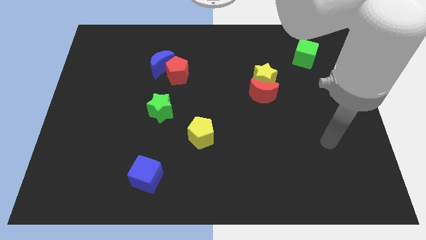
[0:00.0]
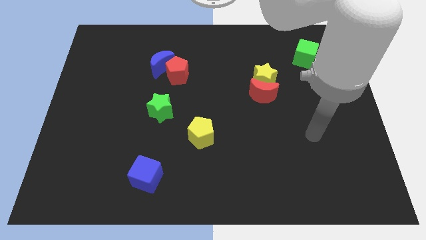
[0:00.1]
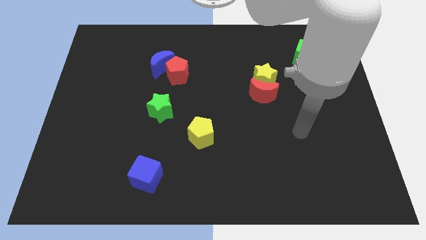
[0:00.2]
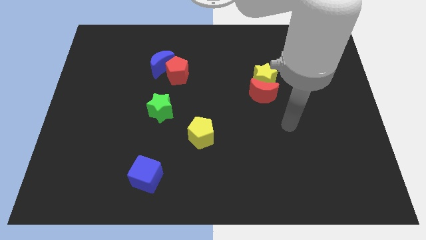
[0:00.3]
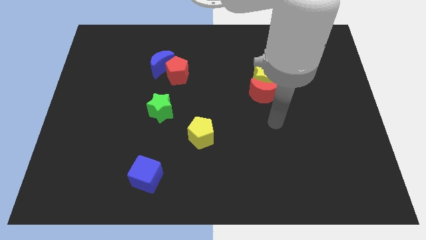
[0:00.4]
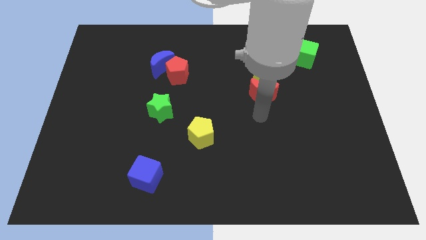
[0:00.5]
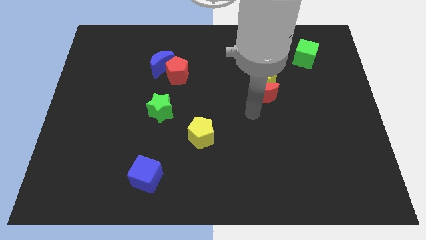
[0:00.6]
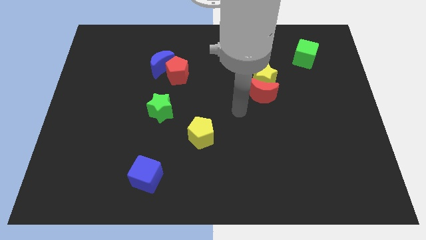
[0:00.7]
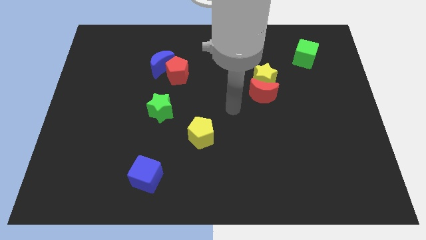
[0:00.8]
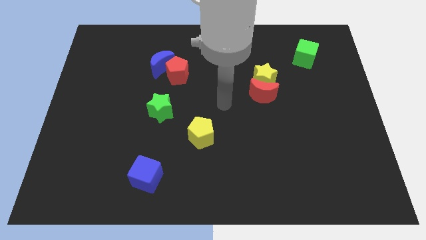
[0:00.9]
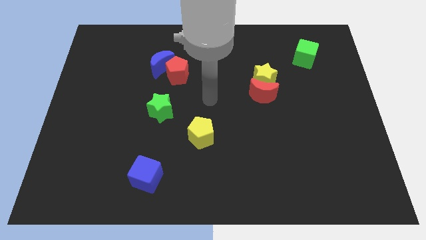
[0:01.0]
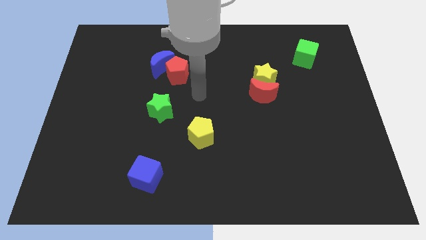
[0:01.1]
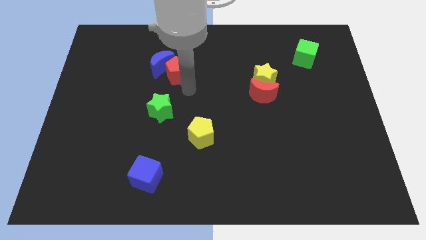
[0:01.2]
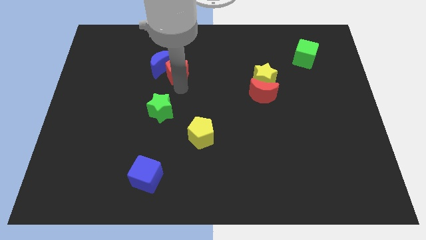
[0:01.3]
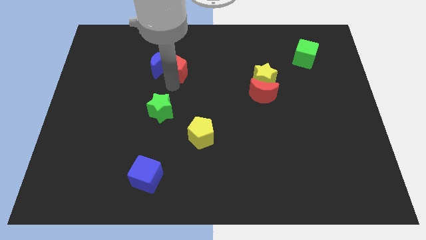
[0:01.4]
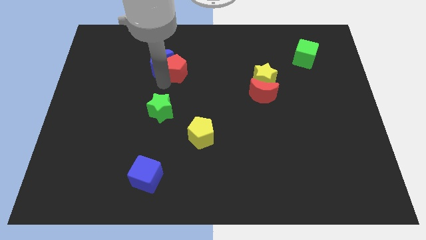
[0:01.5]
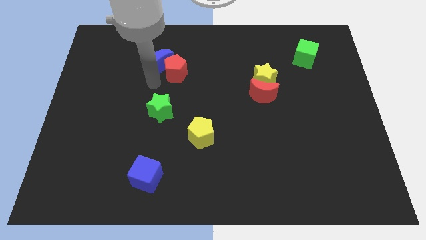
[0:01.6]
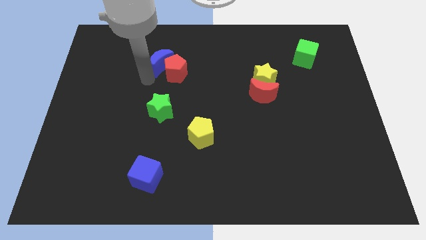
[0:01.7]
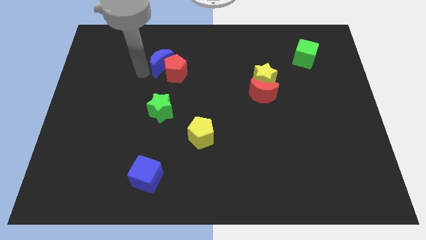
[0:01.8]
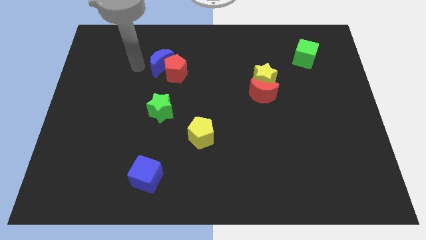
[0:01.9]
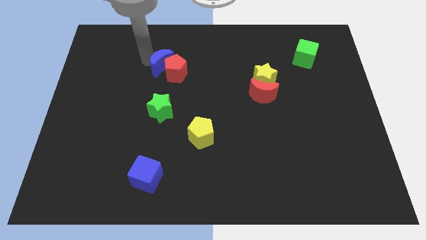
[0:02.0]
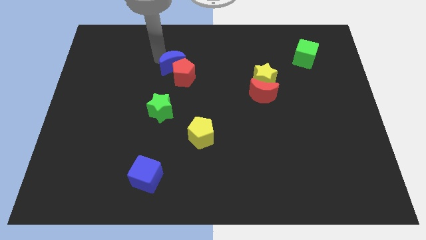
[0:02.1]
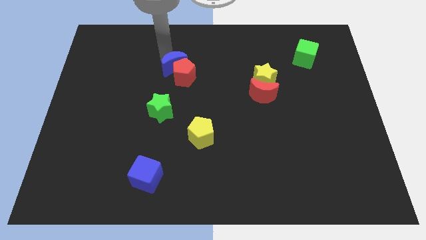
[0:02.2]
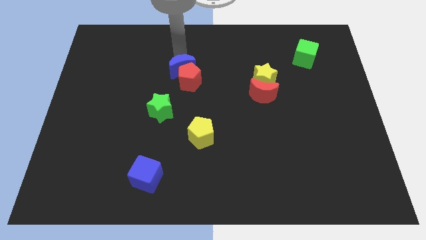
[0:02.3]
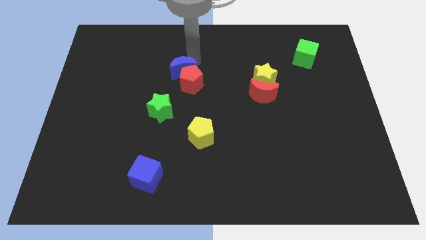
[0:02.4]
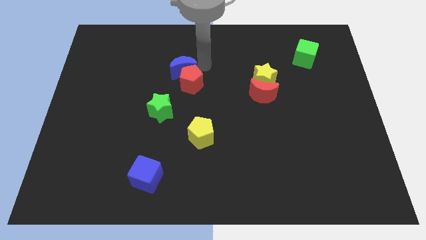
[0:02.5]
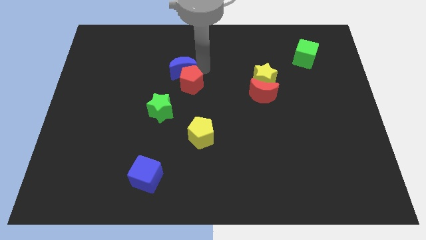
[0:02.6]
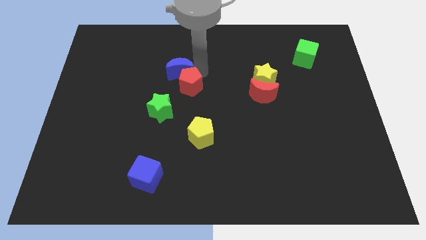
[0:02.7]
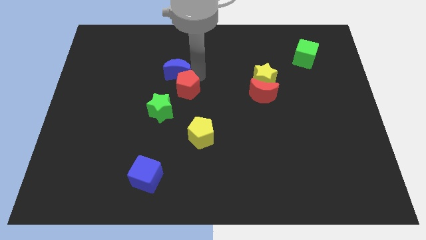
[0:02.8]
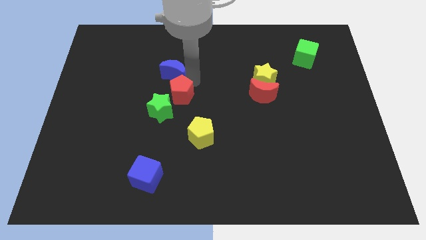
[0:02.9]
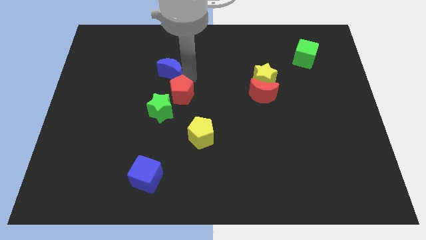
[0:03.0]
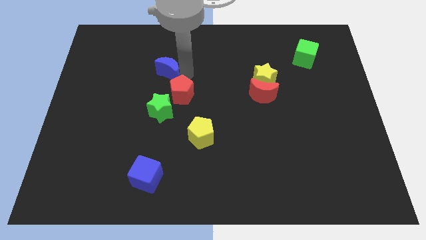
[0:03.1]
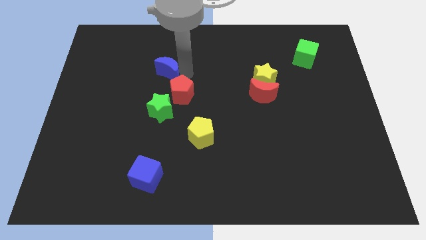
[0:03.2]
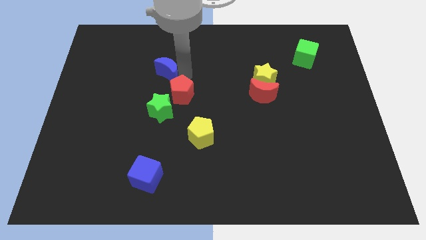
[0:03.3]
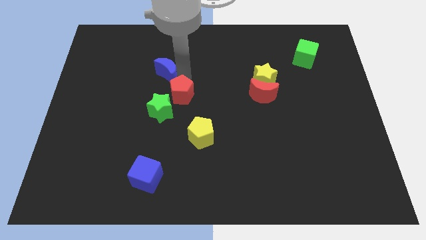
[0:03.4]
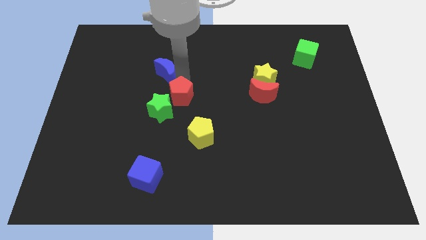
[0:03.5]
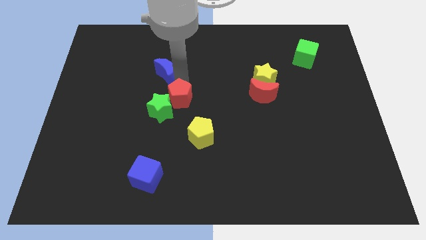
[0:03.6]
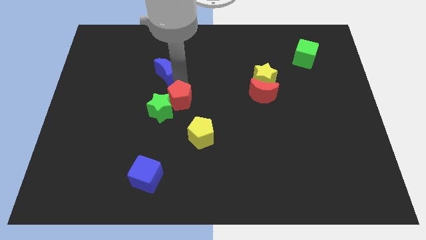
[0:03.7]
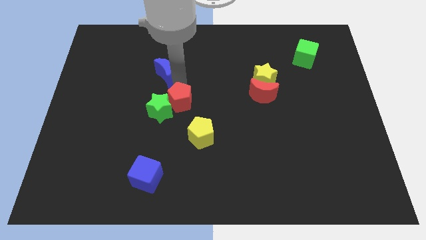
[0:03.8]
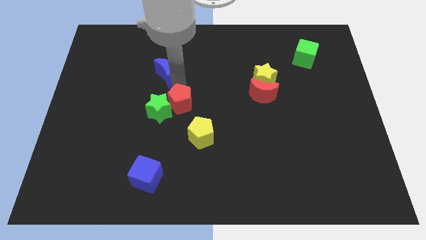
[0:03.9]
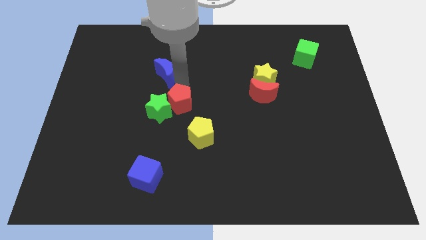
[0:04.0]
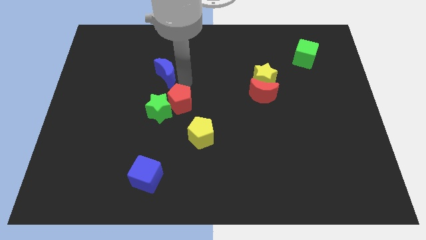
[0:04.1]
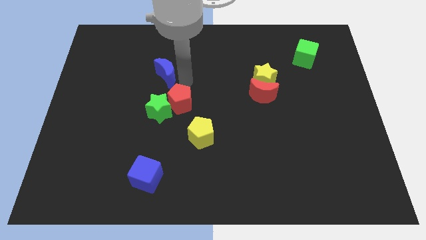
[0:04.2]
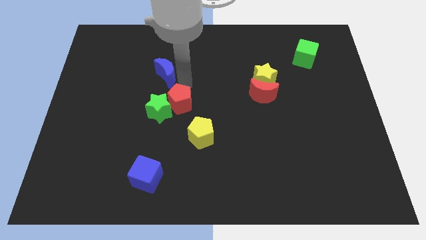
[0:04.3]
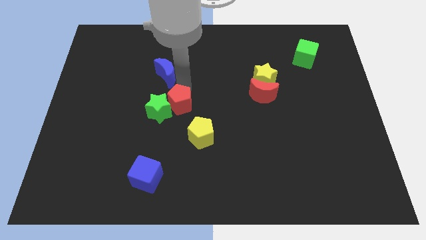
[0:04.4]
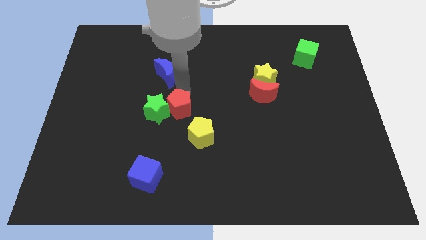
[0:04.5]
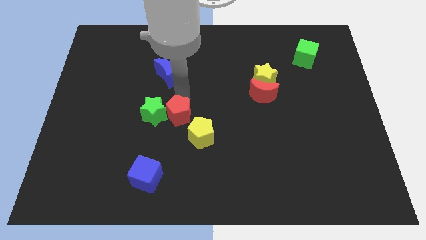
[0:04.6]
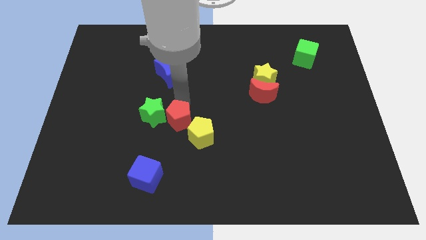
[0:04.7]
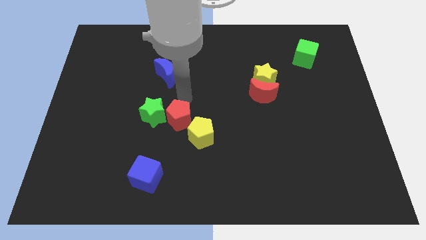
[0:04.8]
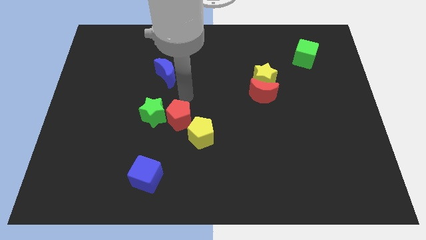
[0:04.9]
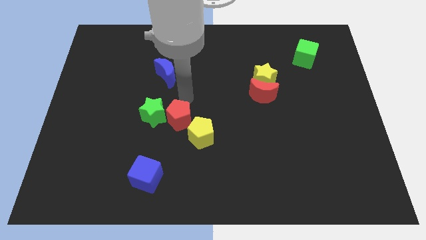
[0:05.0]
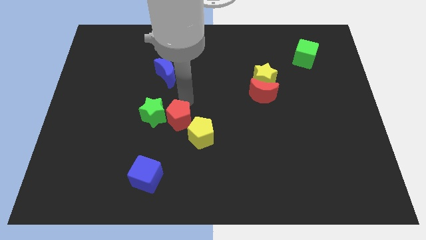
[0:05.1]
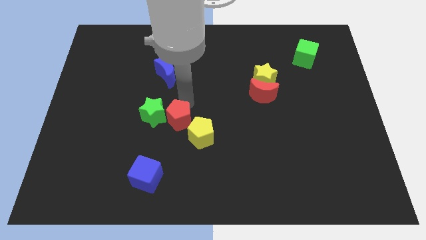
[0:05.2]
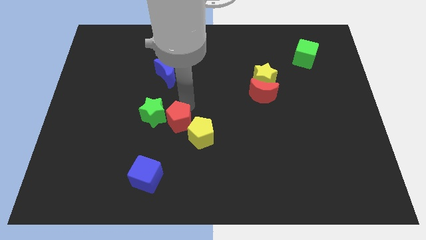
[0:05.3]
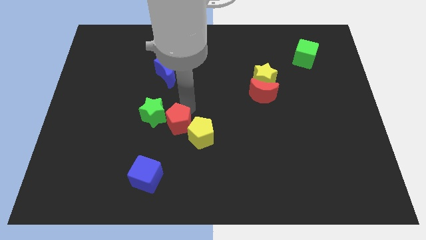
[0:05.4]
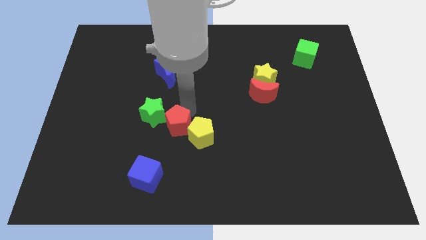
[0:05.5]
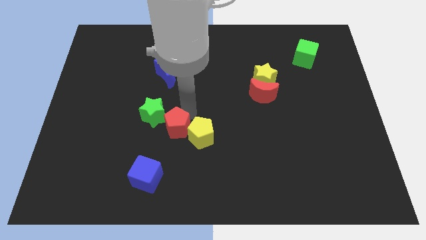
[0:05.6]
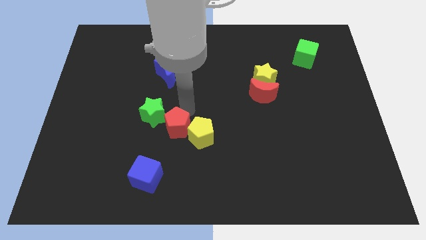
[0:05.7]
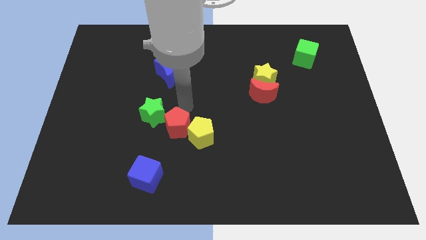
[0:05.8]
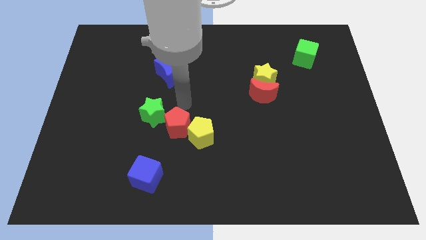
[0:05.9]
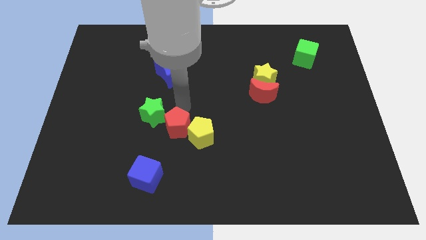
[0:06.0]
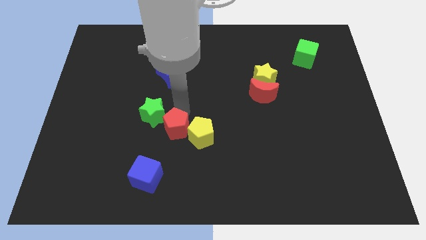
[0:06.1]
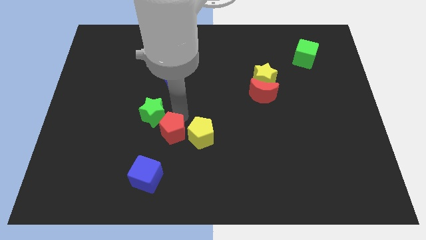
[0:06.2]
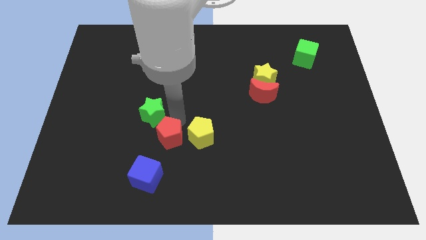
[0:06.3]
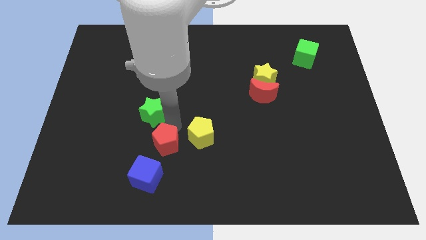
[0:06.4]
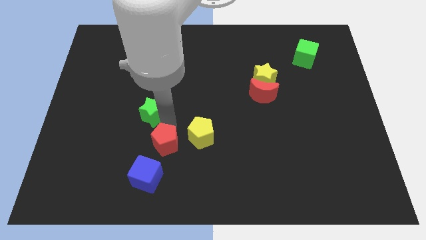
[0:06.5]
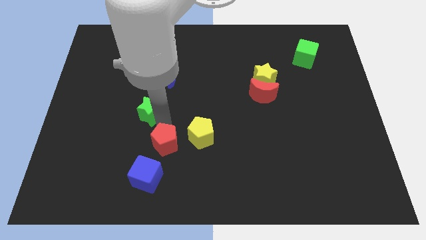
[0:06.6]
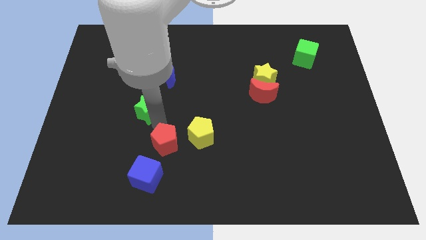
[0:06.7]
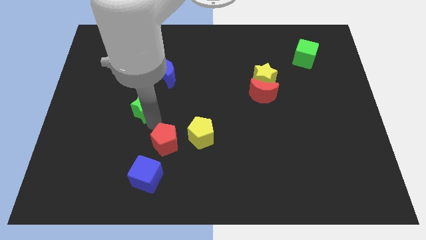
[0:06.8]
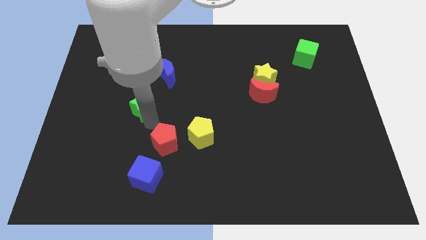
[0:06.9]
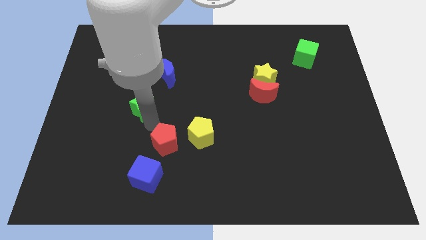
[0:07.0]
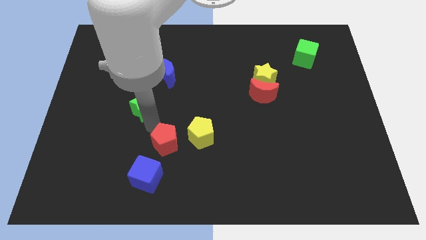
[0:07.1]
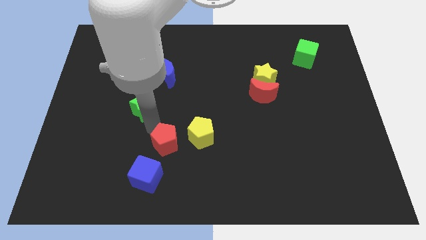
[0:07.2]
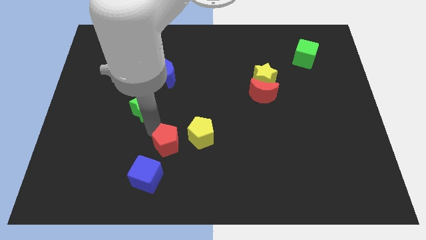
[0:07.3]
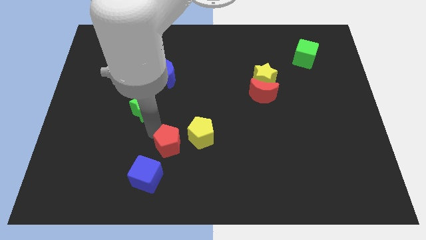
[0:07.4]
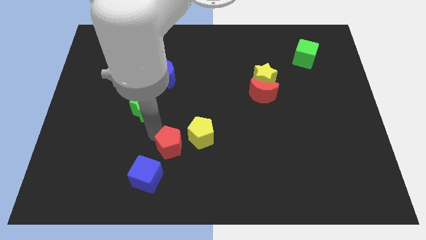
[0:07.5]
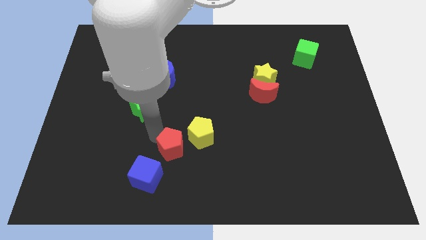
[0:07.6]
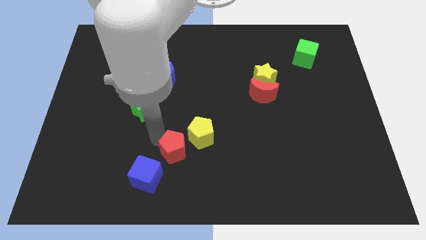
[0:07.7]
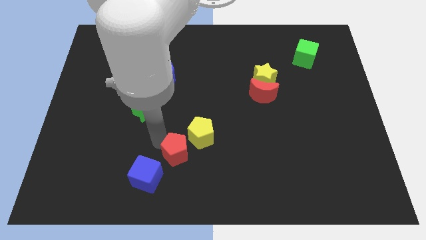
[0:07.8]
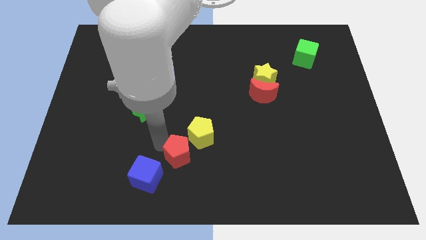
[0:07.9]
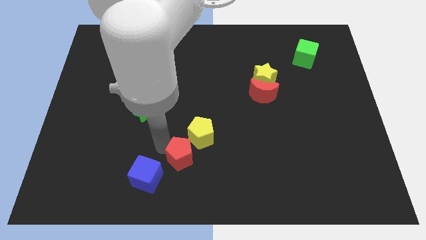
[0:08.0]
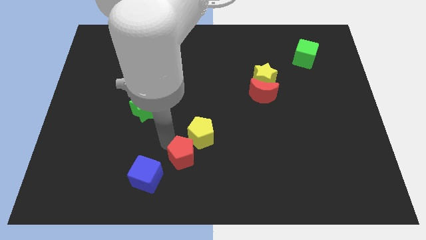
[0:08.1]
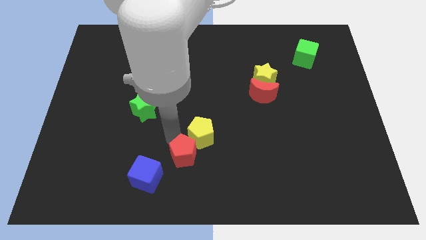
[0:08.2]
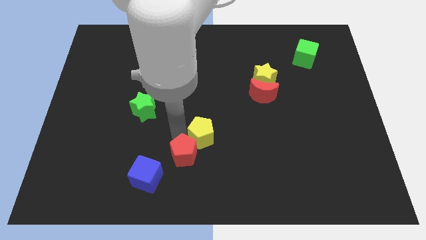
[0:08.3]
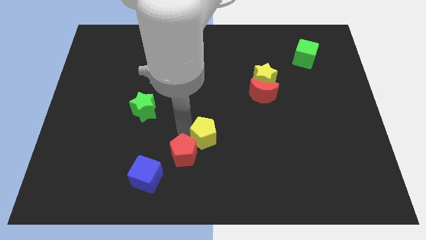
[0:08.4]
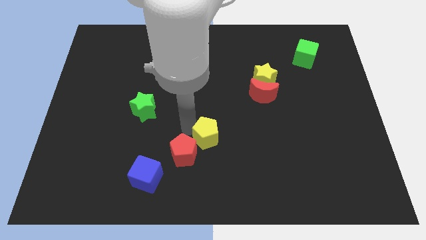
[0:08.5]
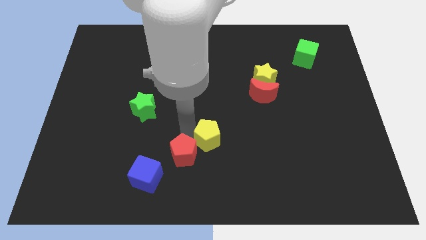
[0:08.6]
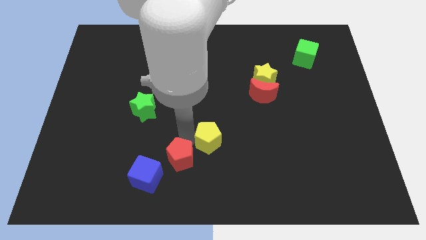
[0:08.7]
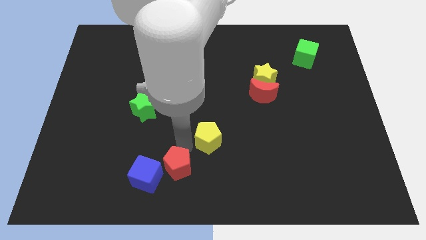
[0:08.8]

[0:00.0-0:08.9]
slide the red pentagon to the bottom side
